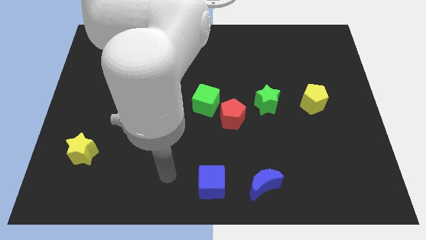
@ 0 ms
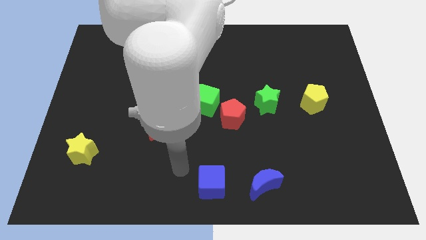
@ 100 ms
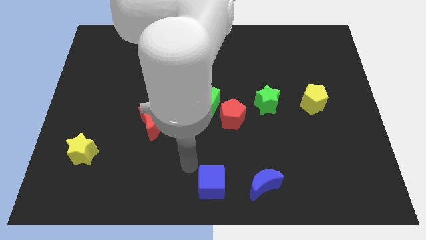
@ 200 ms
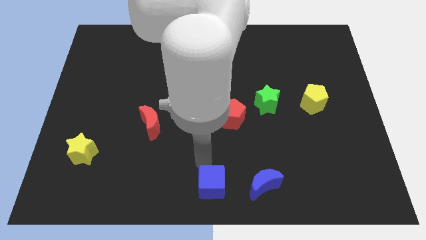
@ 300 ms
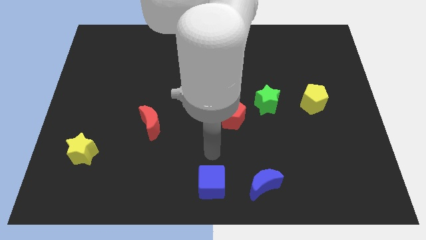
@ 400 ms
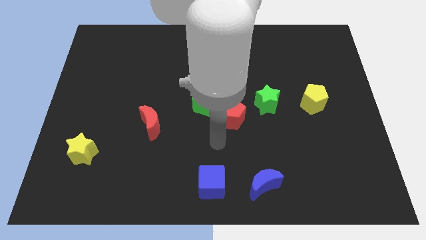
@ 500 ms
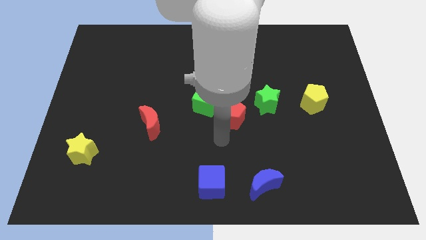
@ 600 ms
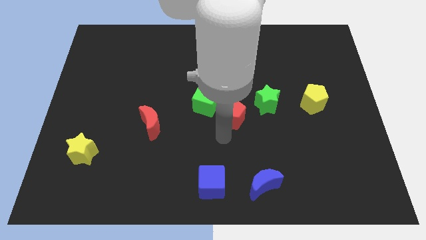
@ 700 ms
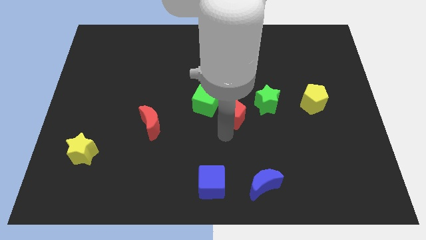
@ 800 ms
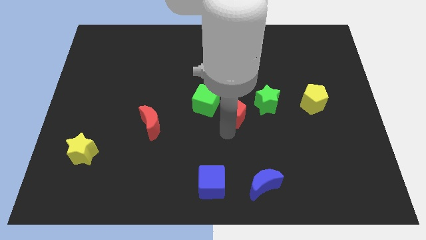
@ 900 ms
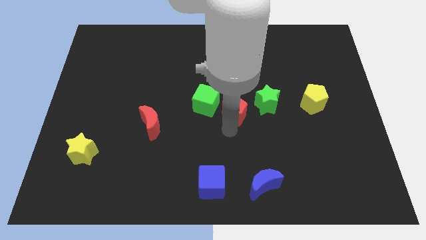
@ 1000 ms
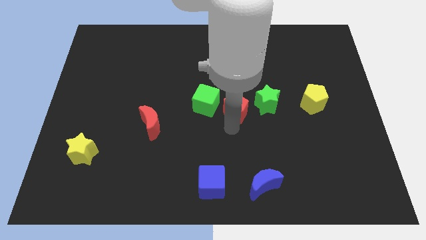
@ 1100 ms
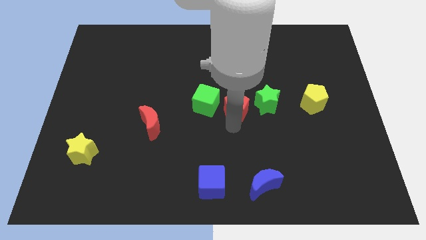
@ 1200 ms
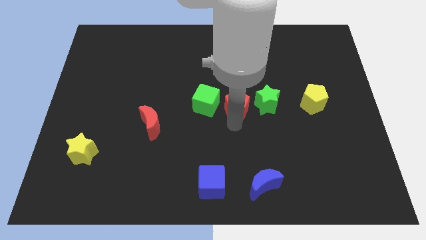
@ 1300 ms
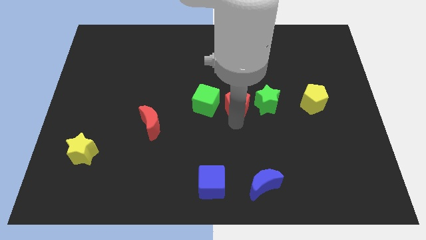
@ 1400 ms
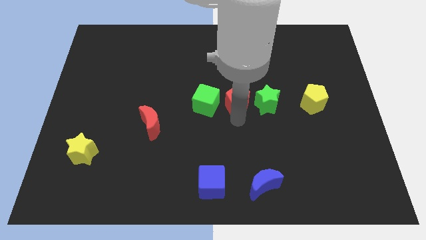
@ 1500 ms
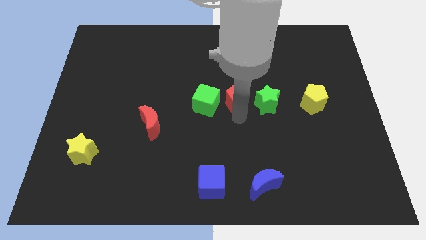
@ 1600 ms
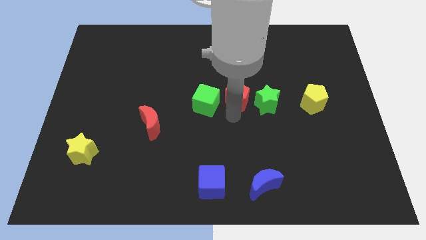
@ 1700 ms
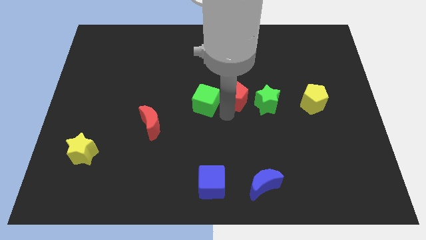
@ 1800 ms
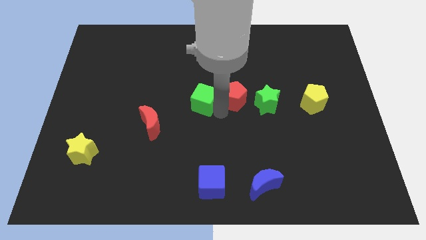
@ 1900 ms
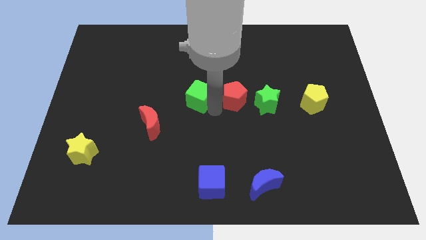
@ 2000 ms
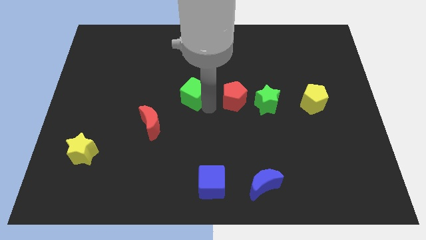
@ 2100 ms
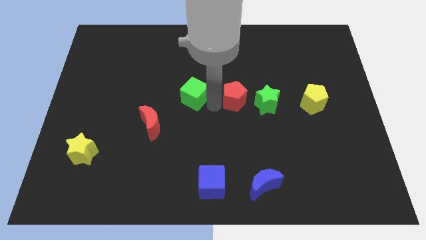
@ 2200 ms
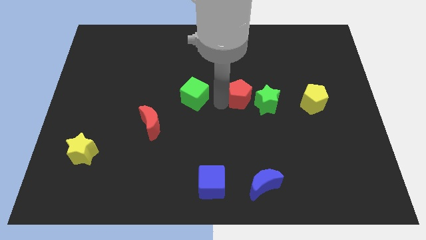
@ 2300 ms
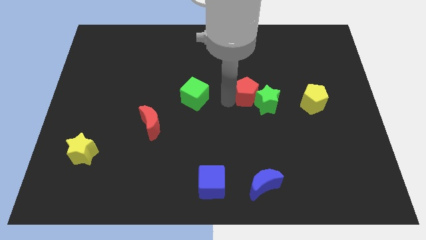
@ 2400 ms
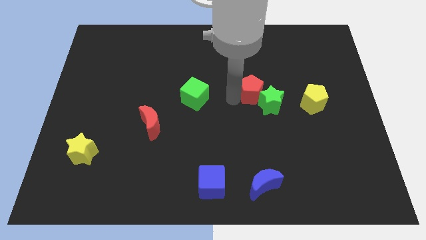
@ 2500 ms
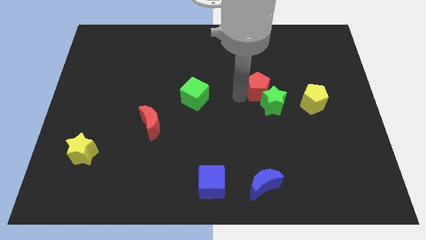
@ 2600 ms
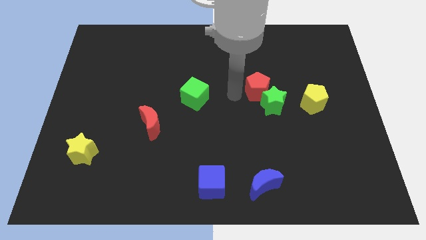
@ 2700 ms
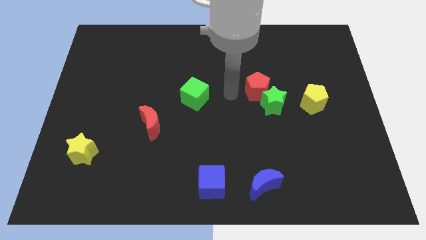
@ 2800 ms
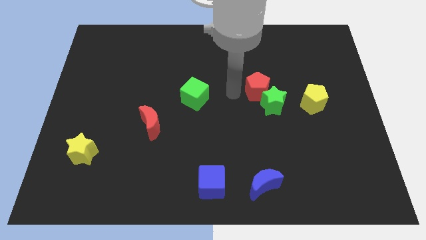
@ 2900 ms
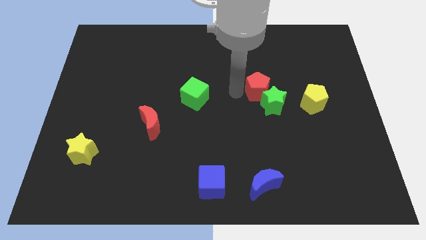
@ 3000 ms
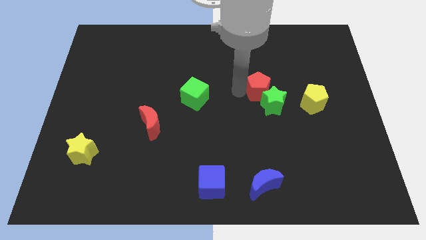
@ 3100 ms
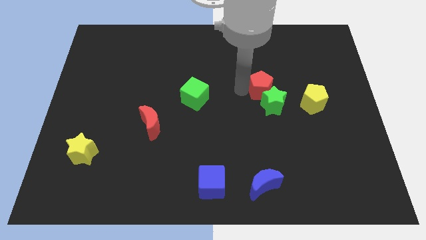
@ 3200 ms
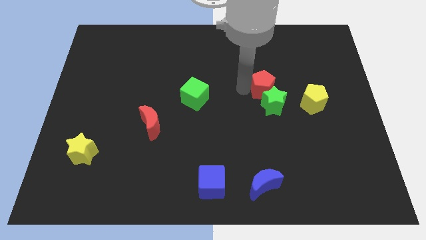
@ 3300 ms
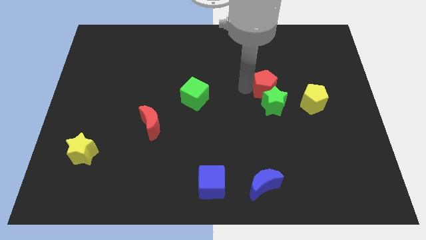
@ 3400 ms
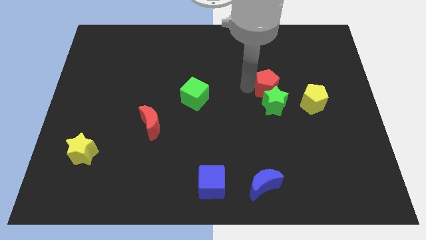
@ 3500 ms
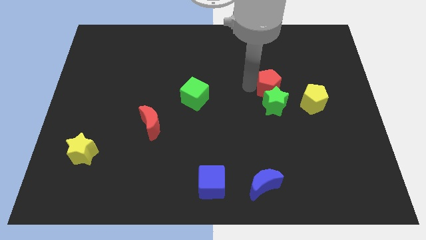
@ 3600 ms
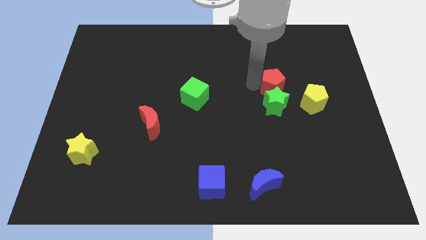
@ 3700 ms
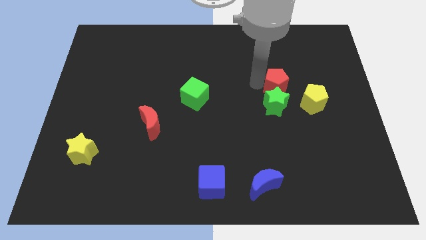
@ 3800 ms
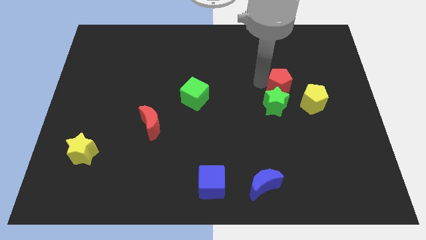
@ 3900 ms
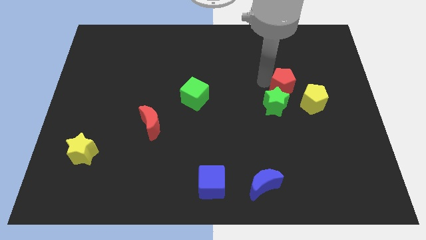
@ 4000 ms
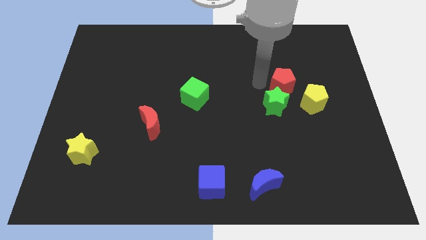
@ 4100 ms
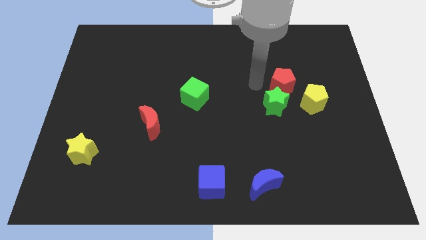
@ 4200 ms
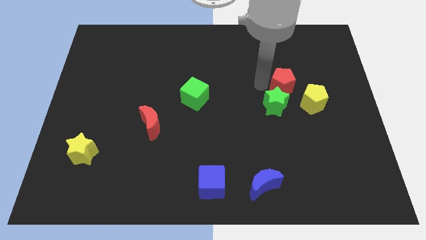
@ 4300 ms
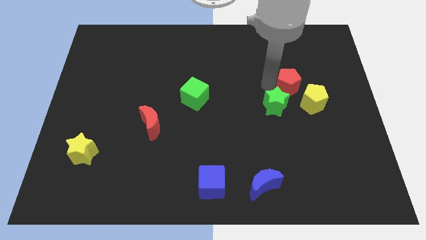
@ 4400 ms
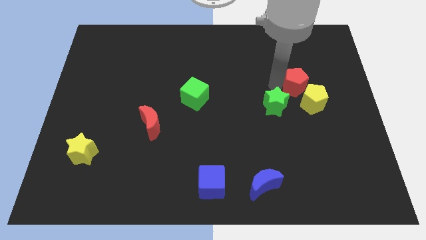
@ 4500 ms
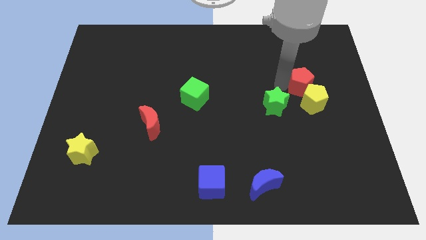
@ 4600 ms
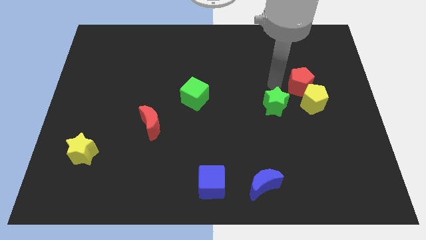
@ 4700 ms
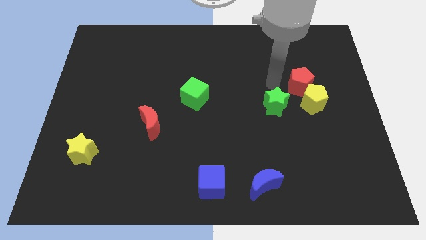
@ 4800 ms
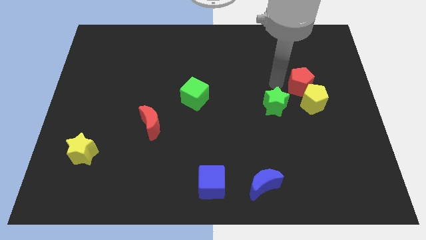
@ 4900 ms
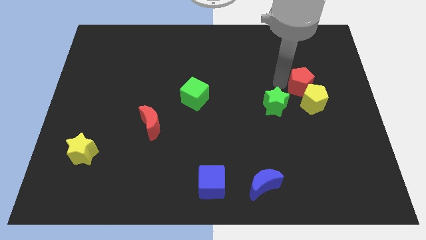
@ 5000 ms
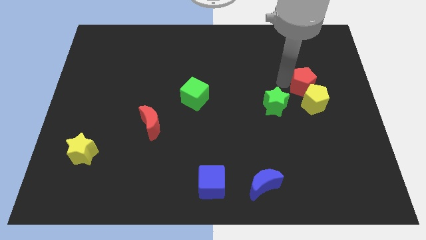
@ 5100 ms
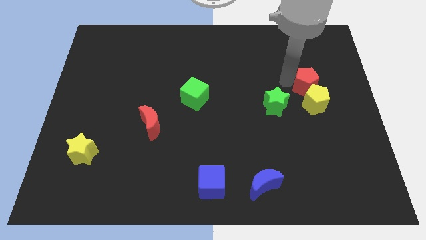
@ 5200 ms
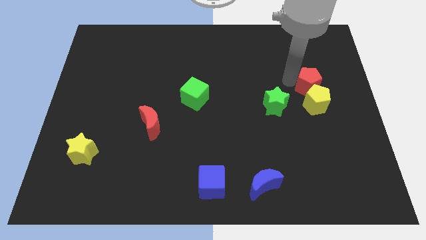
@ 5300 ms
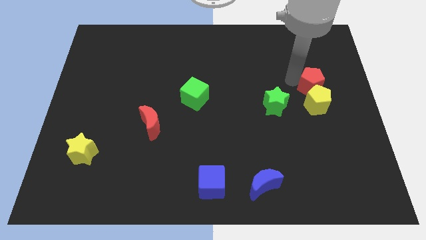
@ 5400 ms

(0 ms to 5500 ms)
push the red pentagon diagonally up and to the right of the yellow pentagon

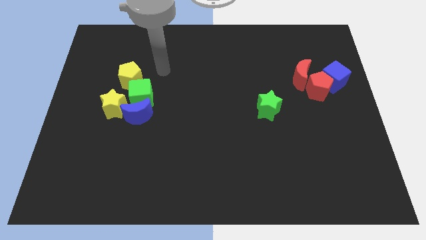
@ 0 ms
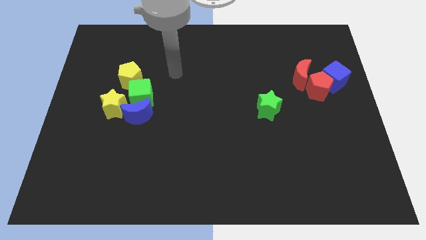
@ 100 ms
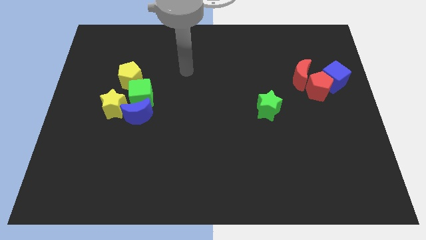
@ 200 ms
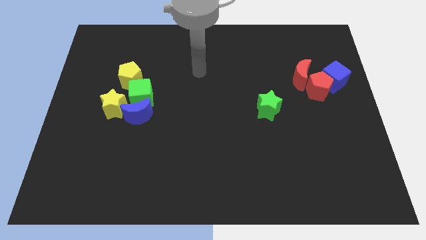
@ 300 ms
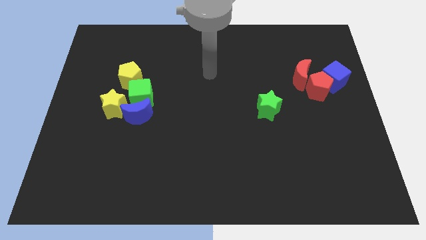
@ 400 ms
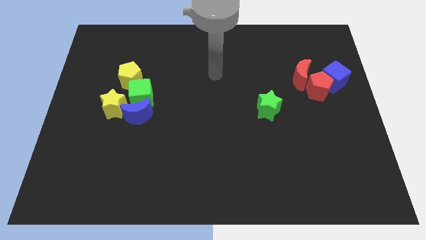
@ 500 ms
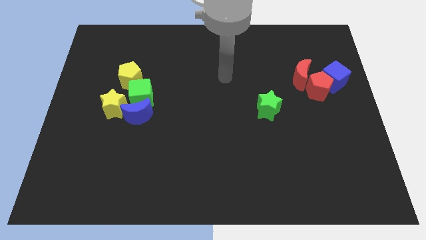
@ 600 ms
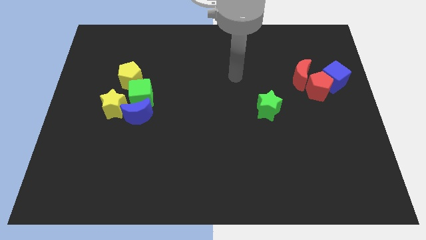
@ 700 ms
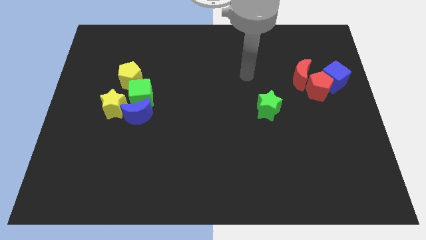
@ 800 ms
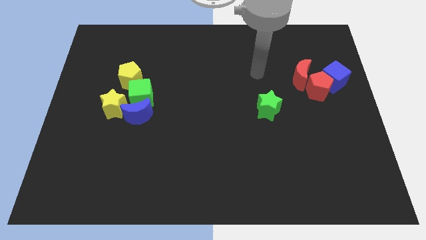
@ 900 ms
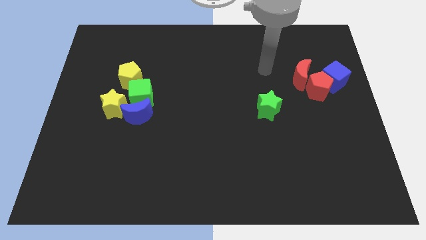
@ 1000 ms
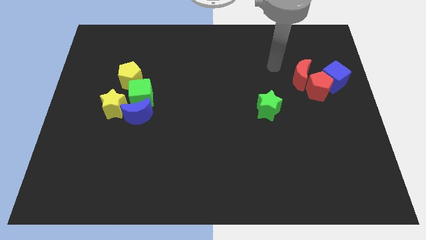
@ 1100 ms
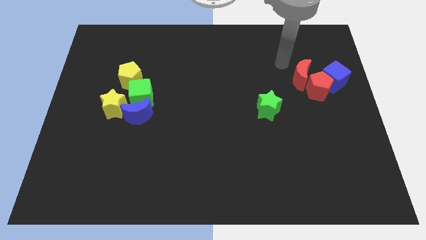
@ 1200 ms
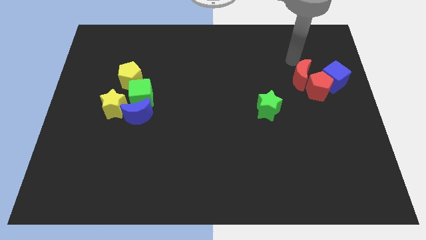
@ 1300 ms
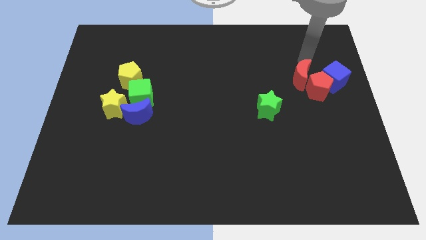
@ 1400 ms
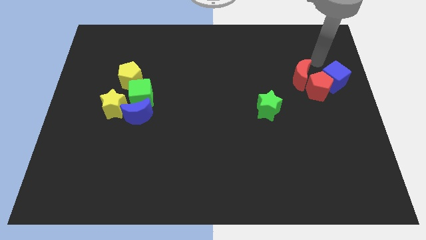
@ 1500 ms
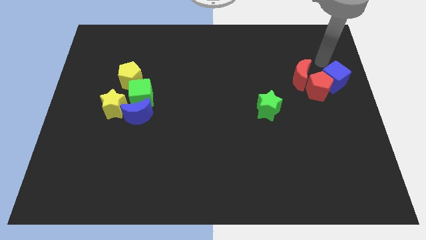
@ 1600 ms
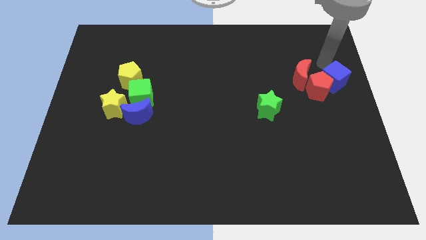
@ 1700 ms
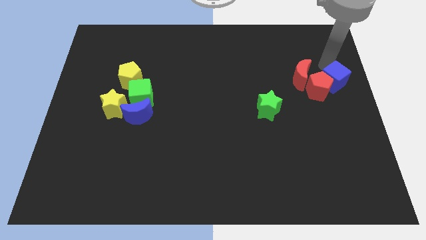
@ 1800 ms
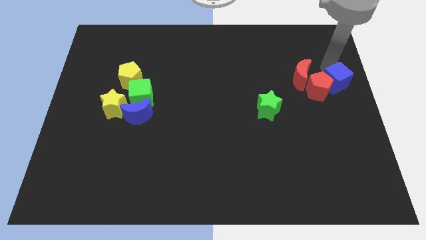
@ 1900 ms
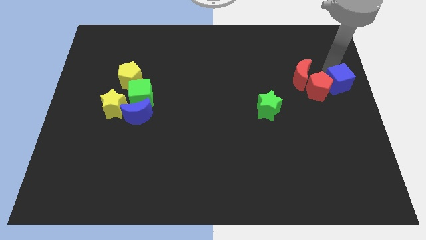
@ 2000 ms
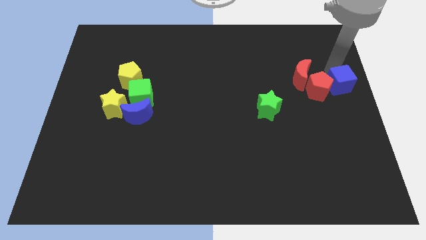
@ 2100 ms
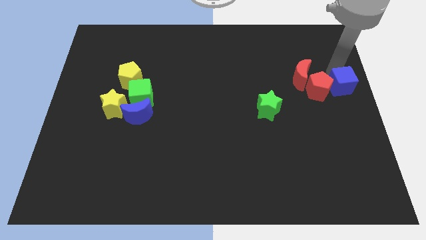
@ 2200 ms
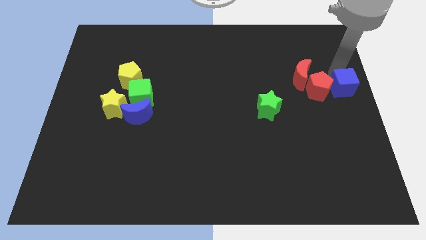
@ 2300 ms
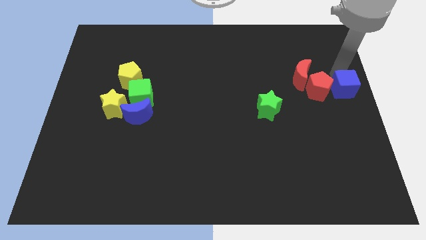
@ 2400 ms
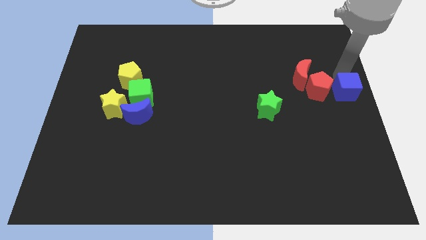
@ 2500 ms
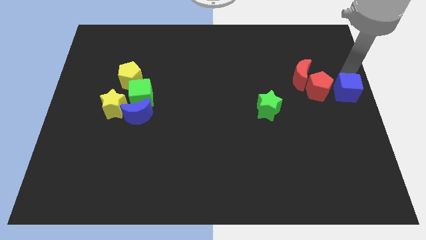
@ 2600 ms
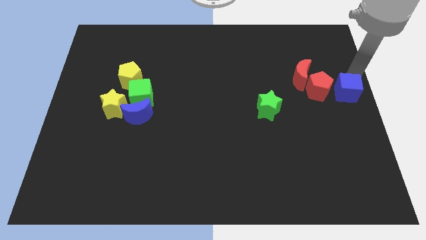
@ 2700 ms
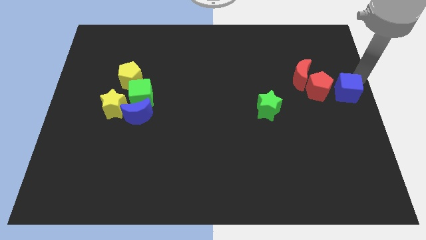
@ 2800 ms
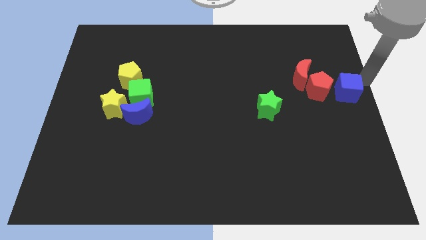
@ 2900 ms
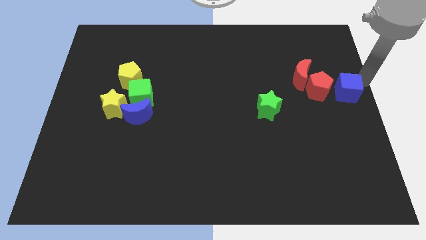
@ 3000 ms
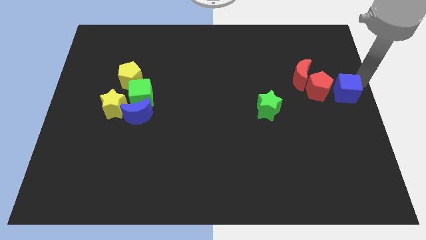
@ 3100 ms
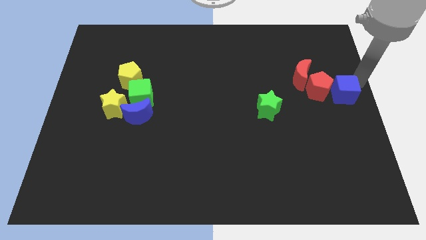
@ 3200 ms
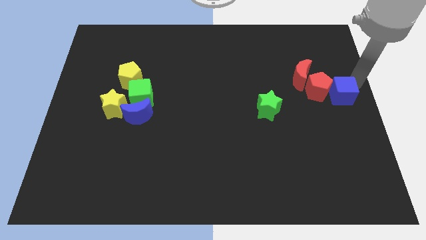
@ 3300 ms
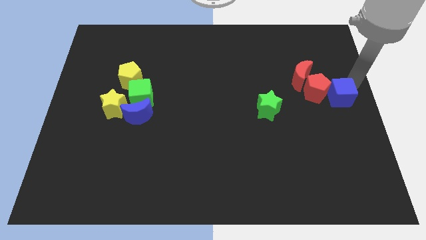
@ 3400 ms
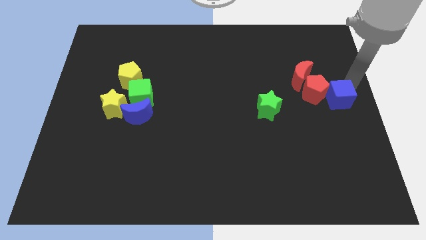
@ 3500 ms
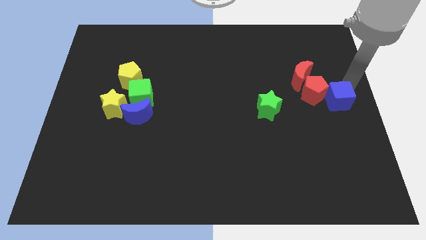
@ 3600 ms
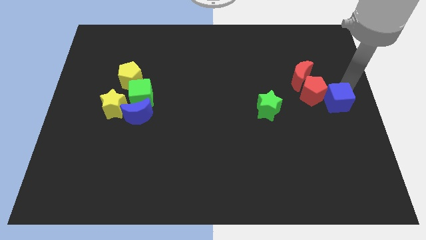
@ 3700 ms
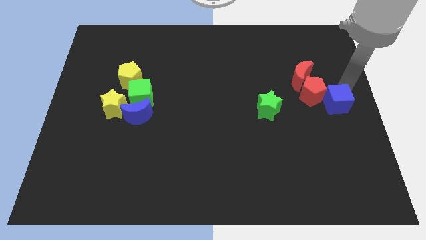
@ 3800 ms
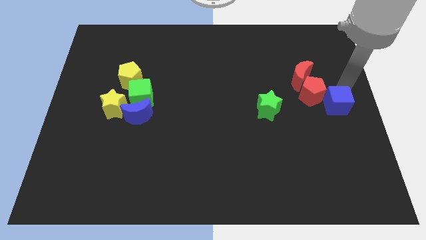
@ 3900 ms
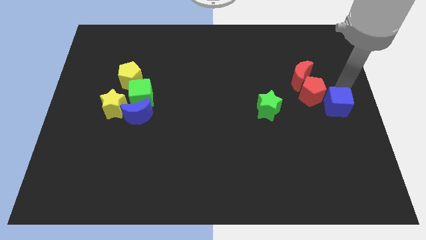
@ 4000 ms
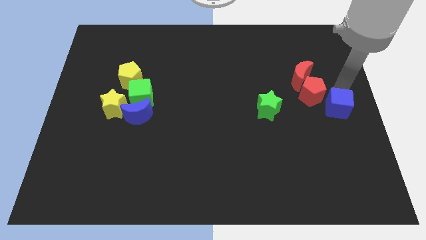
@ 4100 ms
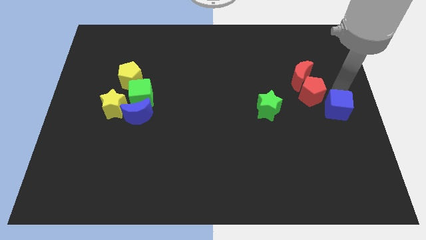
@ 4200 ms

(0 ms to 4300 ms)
put the blue cube right of the green star
